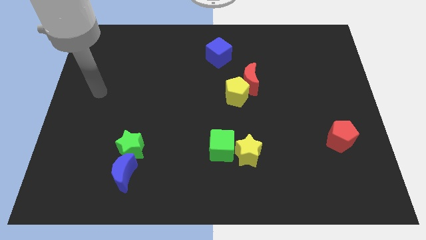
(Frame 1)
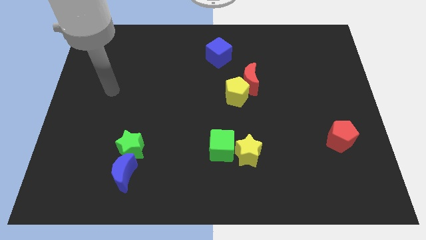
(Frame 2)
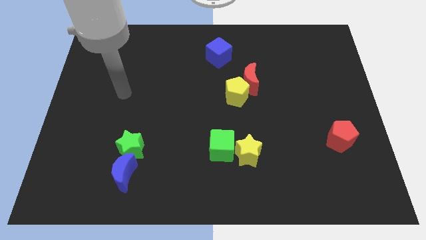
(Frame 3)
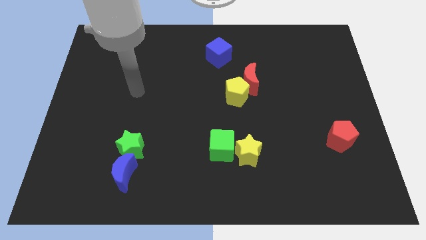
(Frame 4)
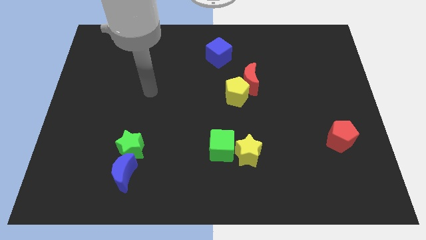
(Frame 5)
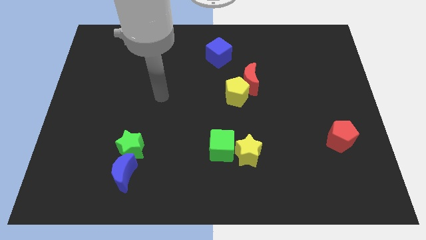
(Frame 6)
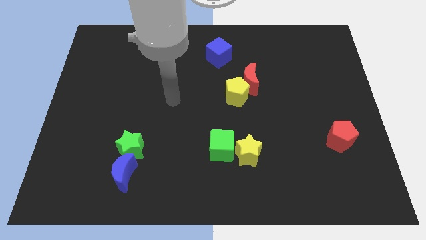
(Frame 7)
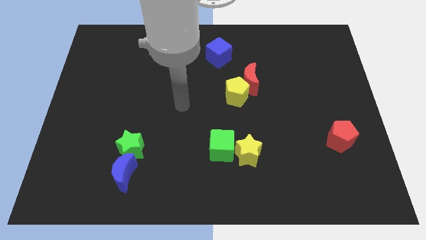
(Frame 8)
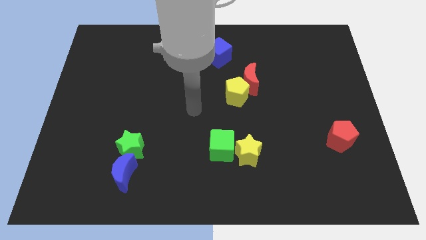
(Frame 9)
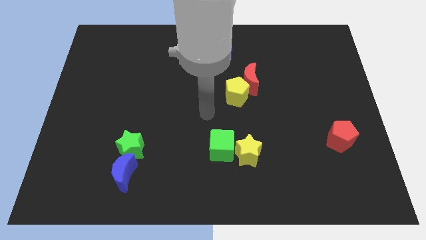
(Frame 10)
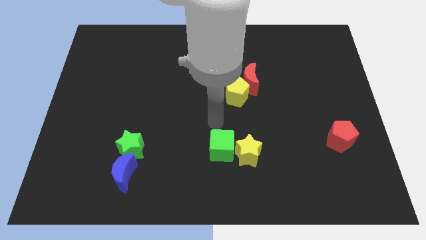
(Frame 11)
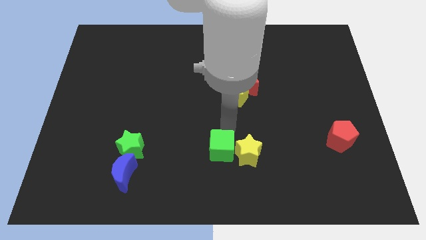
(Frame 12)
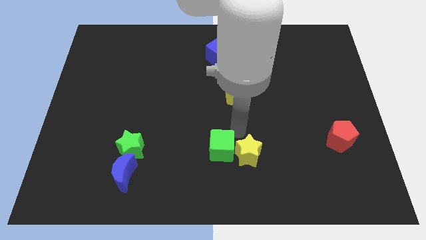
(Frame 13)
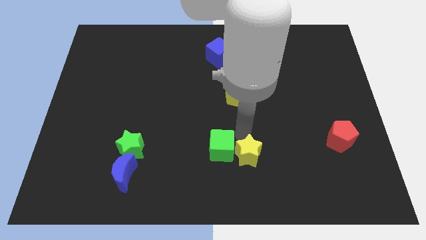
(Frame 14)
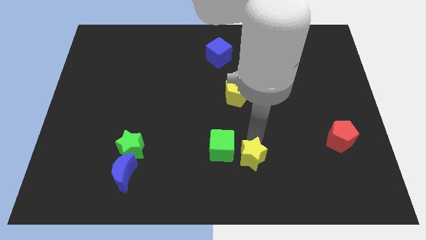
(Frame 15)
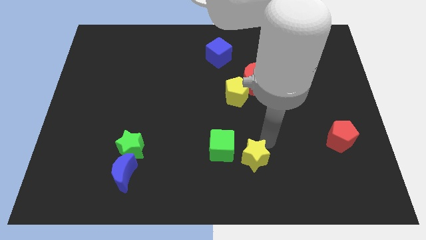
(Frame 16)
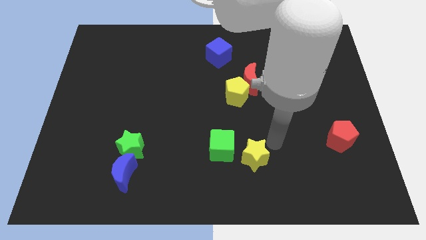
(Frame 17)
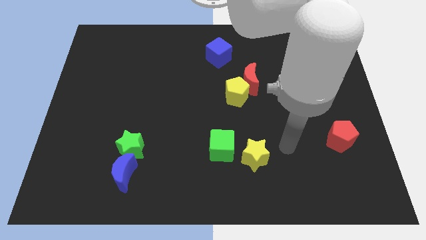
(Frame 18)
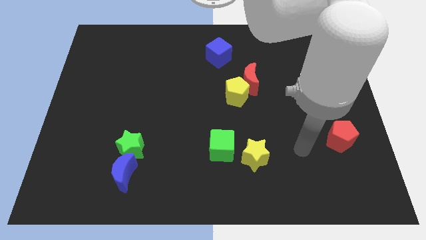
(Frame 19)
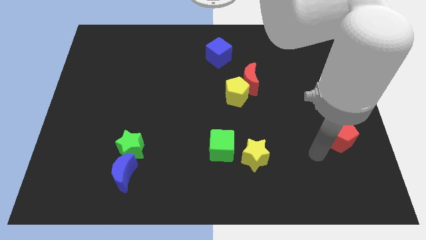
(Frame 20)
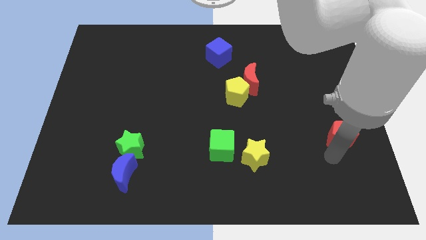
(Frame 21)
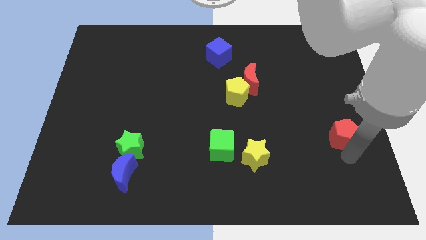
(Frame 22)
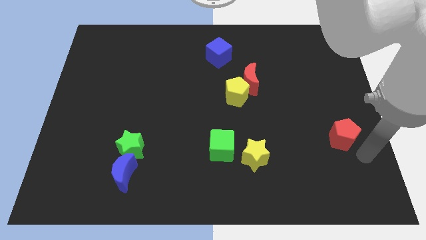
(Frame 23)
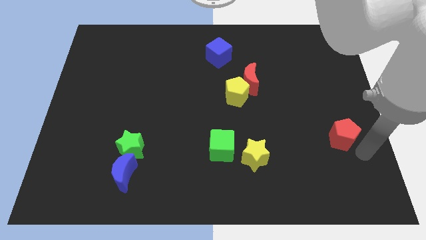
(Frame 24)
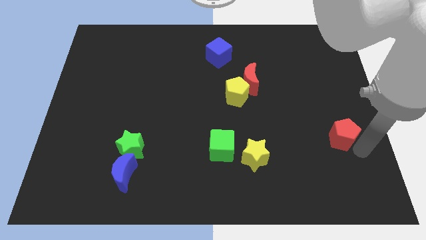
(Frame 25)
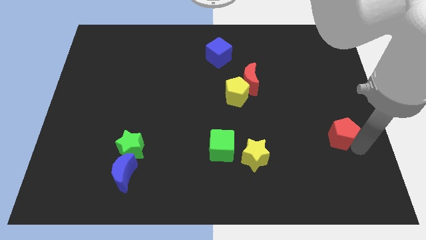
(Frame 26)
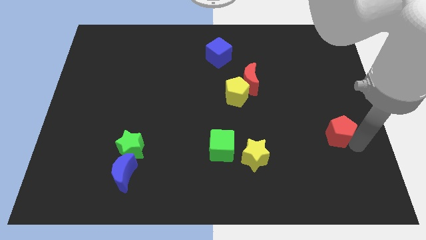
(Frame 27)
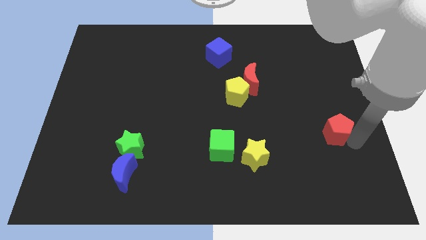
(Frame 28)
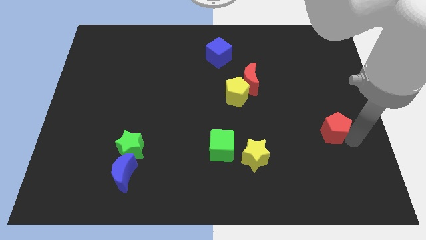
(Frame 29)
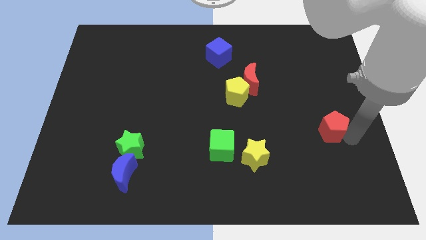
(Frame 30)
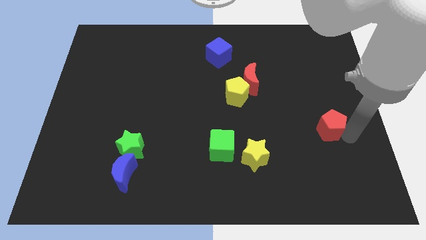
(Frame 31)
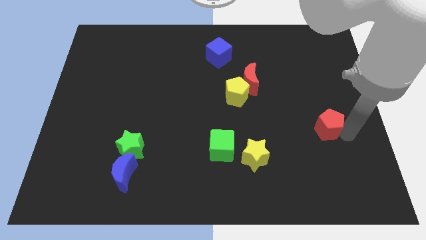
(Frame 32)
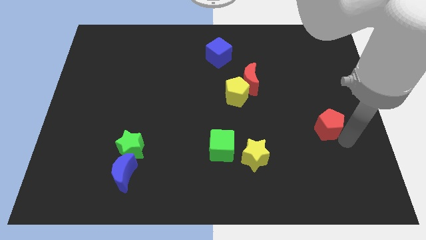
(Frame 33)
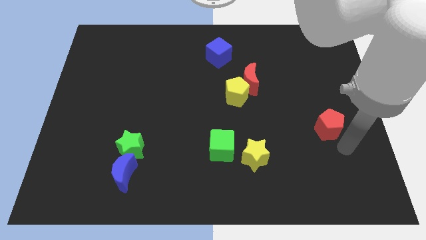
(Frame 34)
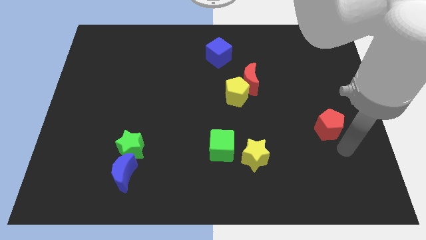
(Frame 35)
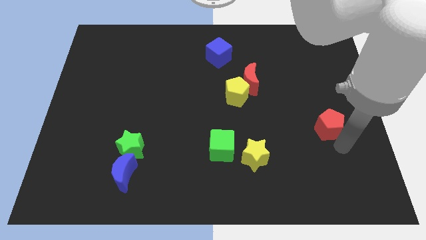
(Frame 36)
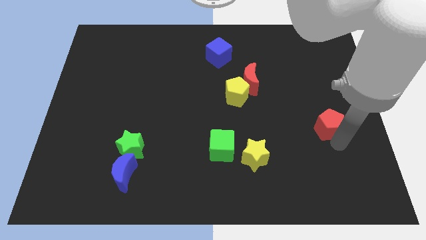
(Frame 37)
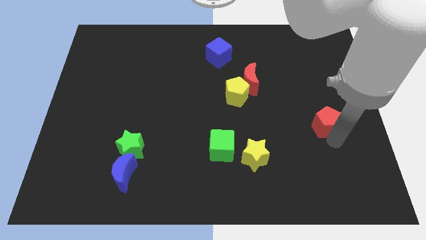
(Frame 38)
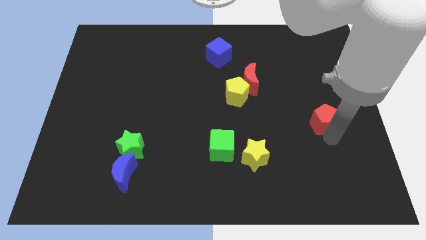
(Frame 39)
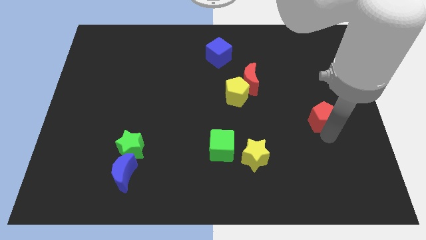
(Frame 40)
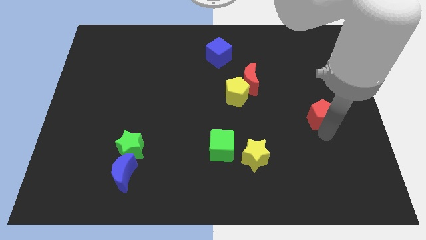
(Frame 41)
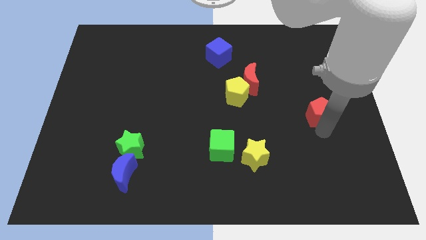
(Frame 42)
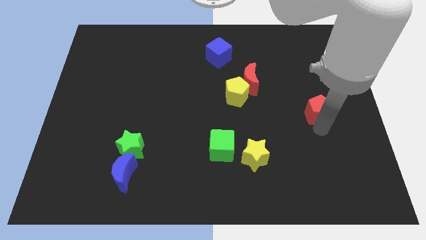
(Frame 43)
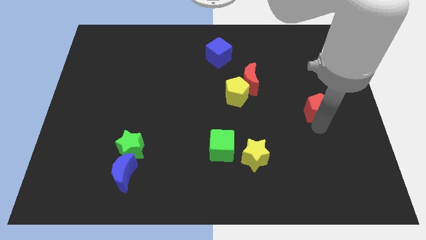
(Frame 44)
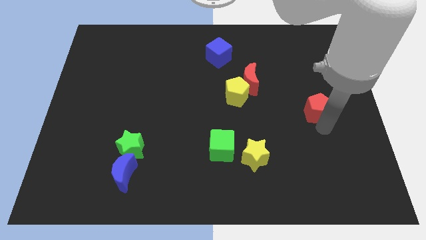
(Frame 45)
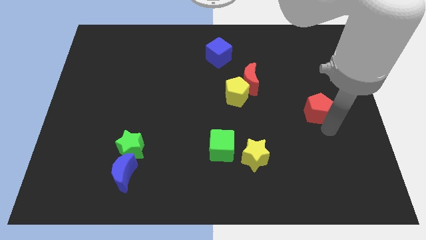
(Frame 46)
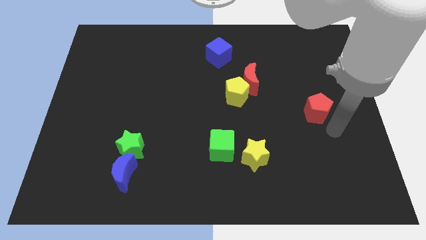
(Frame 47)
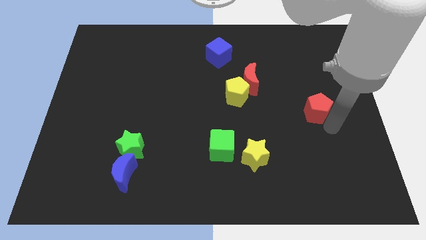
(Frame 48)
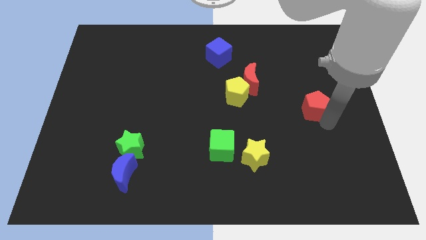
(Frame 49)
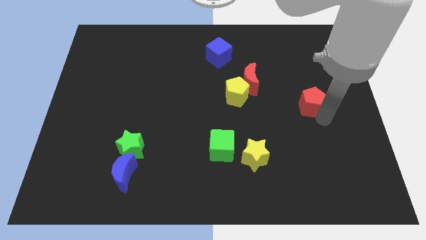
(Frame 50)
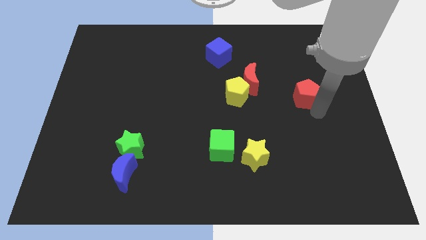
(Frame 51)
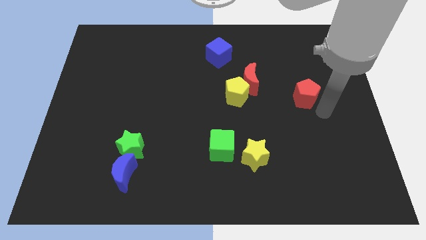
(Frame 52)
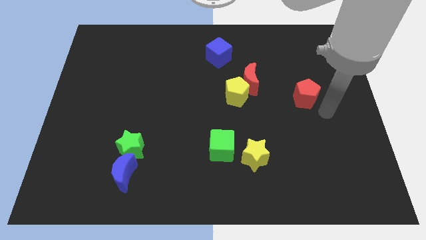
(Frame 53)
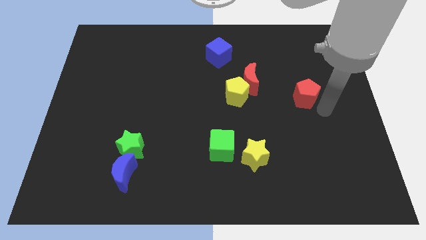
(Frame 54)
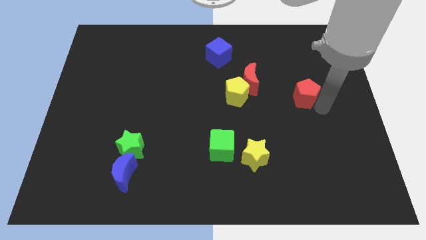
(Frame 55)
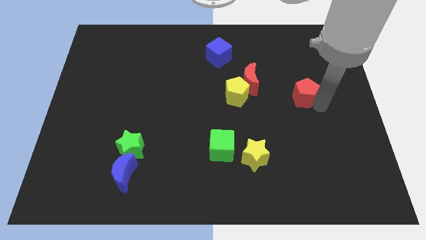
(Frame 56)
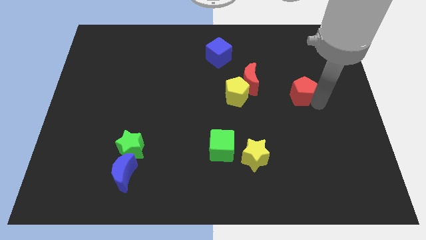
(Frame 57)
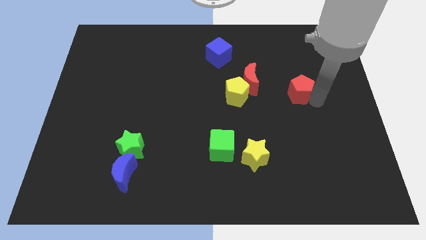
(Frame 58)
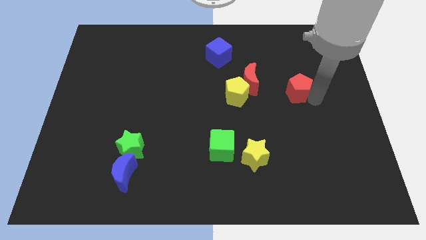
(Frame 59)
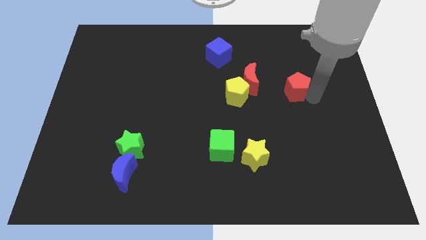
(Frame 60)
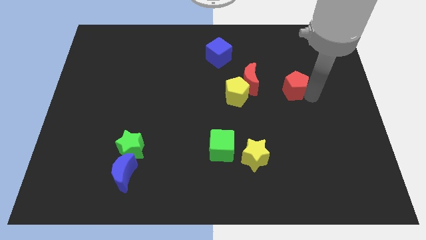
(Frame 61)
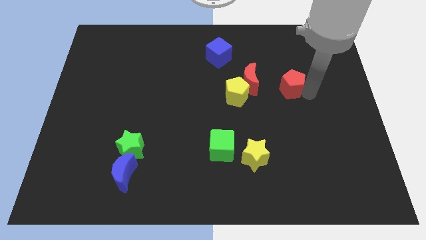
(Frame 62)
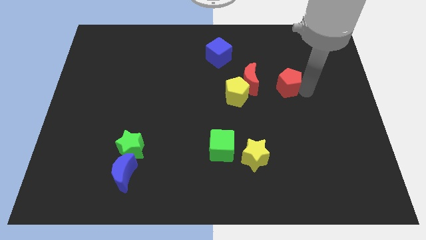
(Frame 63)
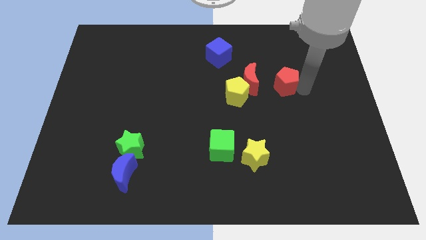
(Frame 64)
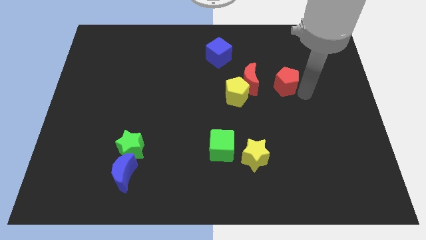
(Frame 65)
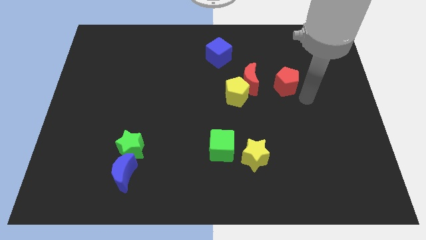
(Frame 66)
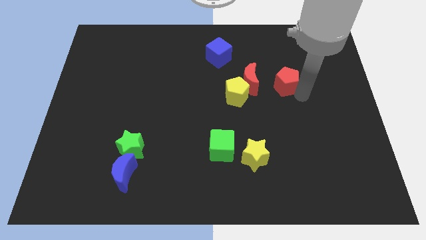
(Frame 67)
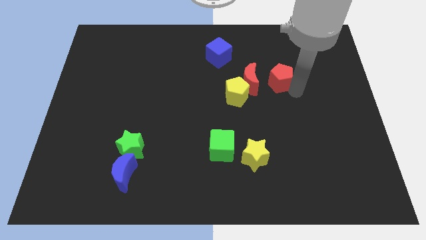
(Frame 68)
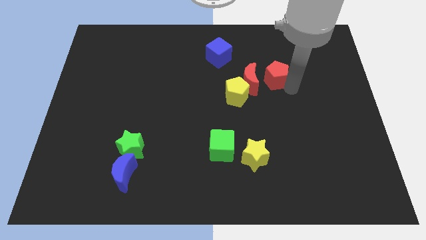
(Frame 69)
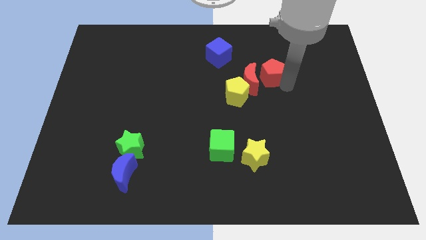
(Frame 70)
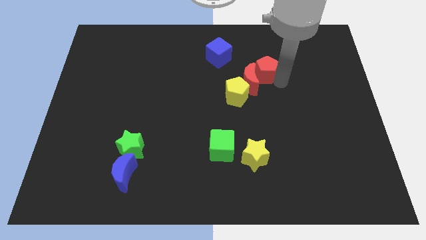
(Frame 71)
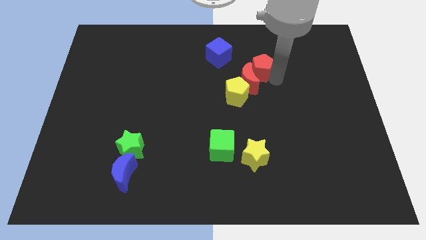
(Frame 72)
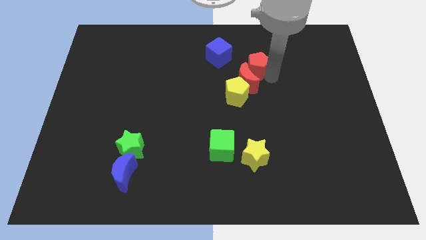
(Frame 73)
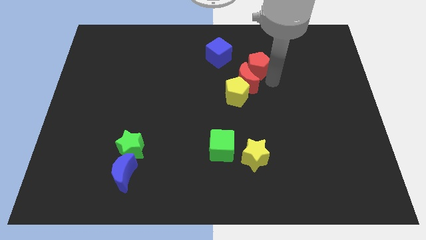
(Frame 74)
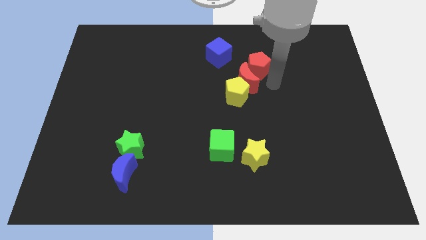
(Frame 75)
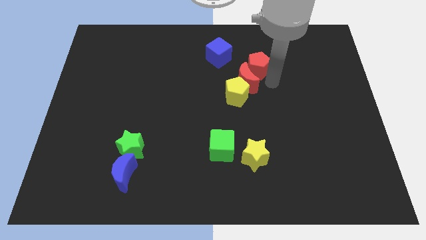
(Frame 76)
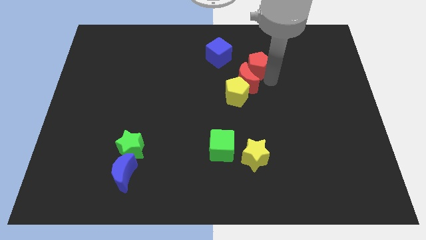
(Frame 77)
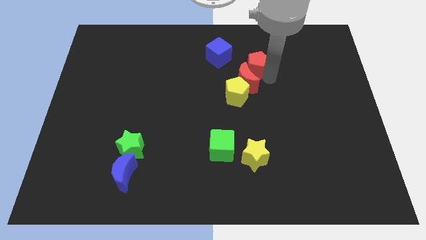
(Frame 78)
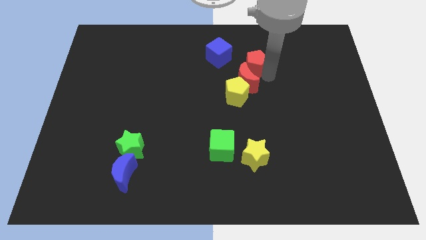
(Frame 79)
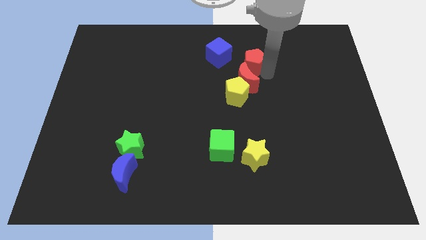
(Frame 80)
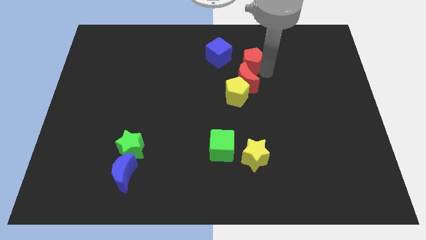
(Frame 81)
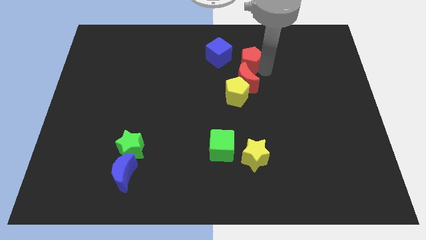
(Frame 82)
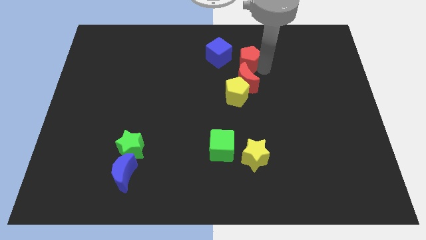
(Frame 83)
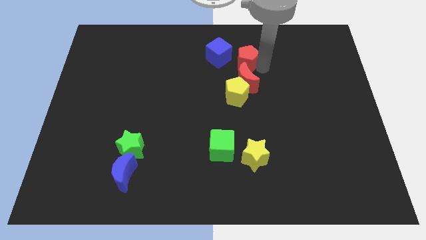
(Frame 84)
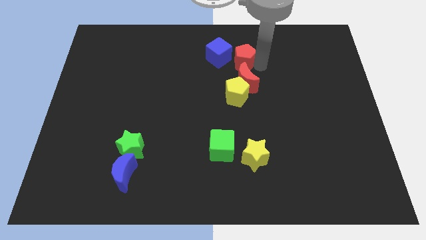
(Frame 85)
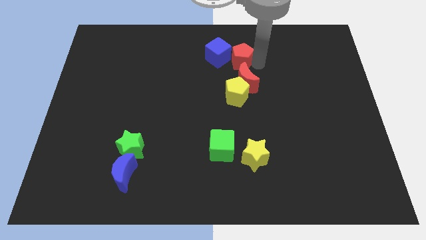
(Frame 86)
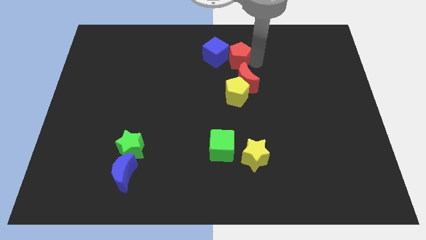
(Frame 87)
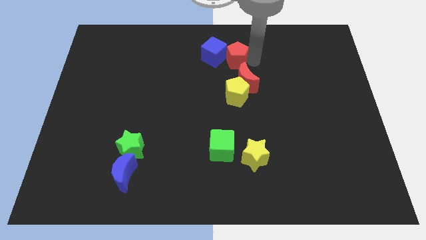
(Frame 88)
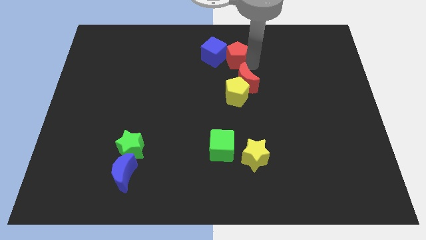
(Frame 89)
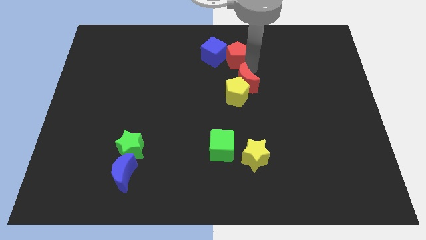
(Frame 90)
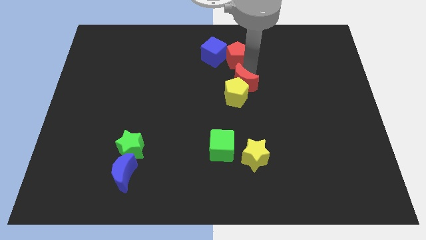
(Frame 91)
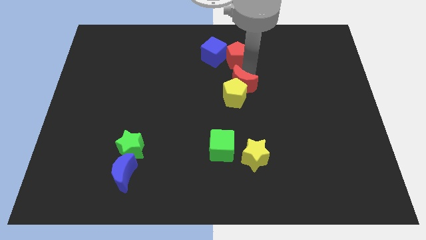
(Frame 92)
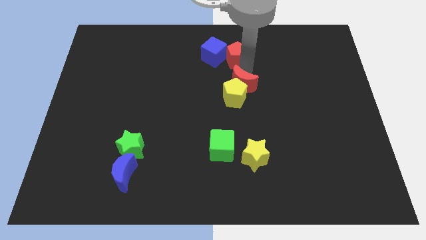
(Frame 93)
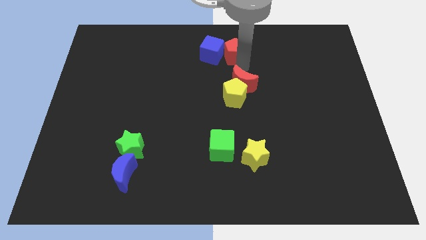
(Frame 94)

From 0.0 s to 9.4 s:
put the red pentagon to the top side
